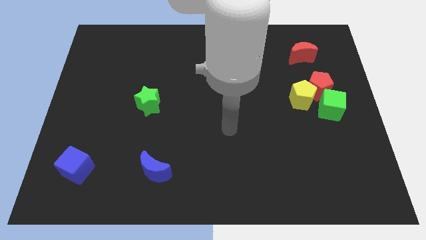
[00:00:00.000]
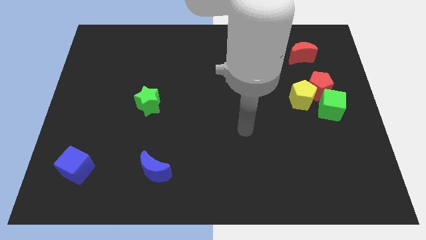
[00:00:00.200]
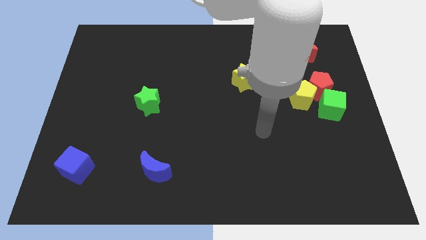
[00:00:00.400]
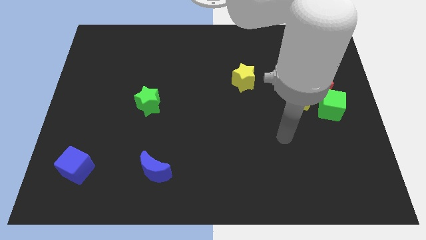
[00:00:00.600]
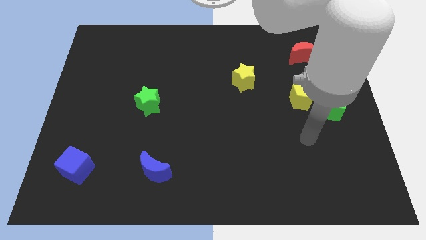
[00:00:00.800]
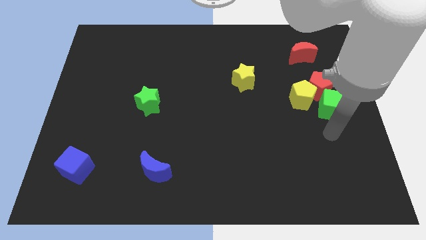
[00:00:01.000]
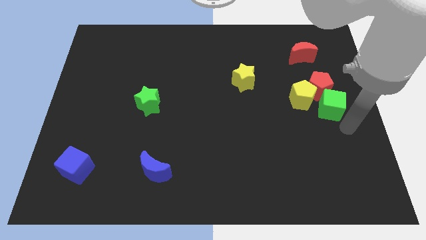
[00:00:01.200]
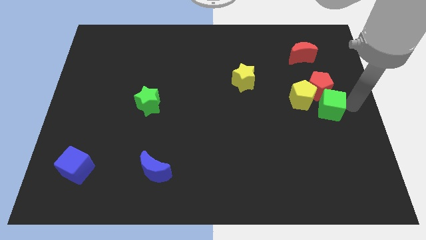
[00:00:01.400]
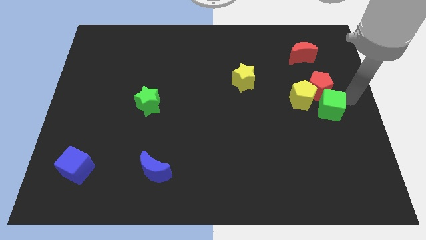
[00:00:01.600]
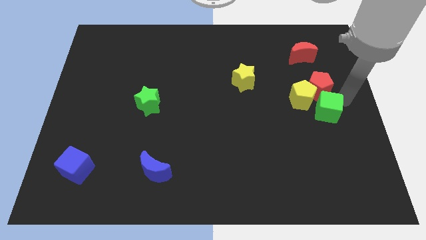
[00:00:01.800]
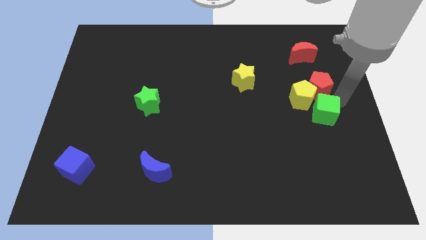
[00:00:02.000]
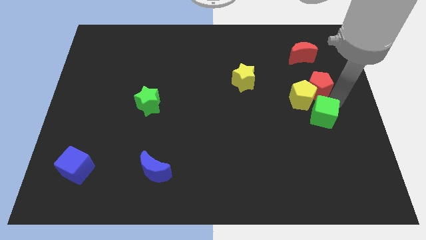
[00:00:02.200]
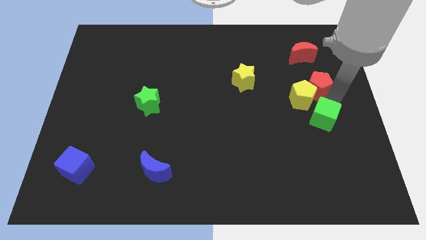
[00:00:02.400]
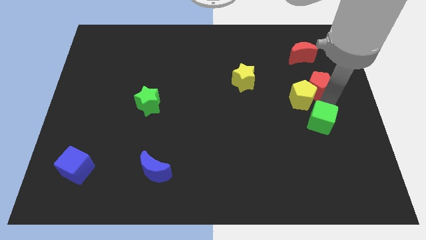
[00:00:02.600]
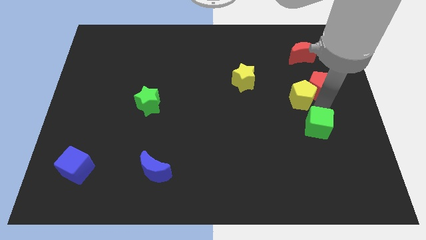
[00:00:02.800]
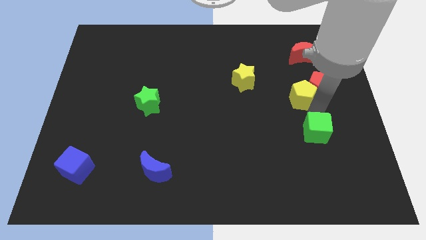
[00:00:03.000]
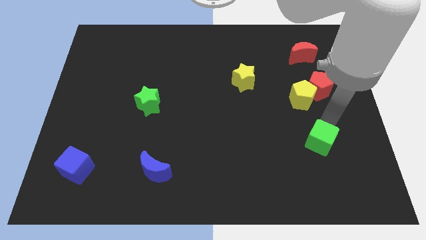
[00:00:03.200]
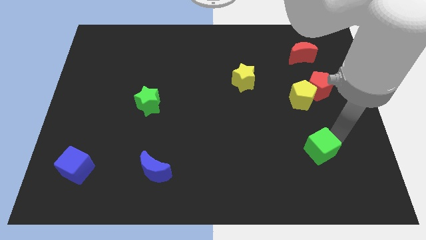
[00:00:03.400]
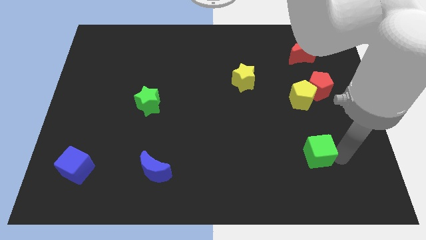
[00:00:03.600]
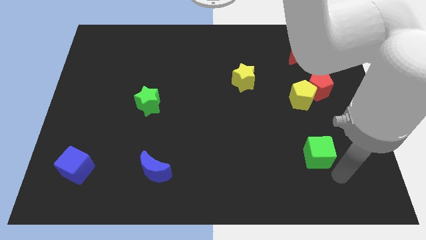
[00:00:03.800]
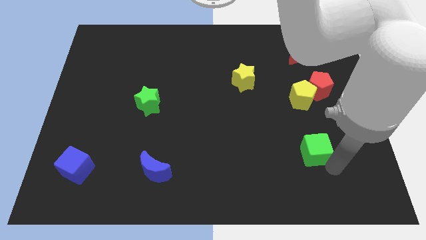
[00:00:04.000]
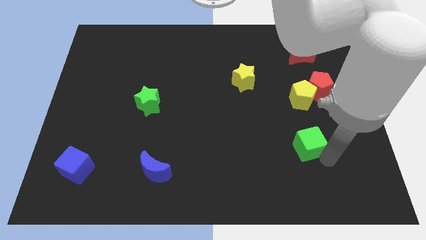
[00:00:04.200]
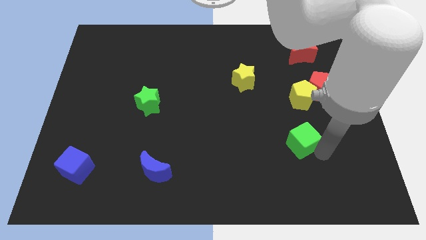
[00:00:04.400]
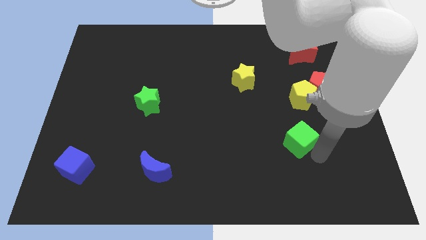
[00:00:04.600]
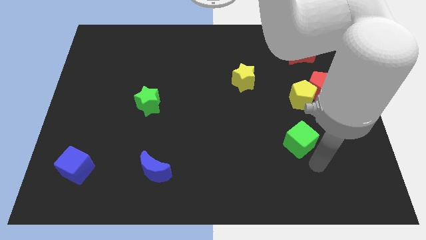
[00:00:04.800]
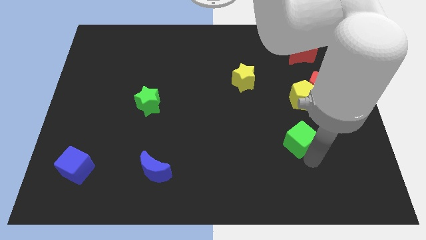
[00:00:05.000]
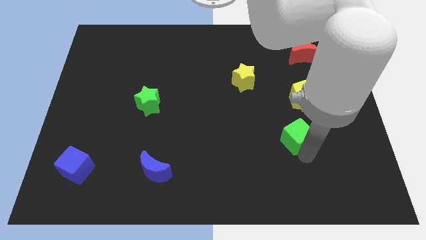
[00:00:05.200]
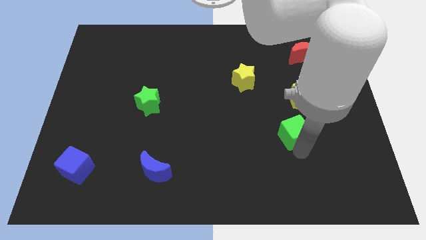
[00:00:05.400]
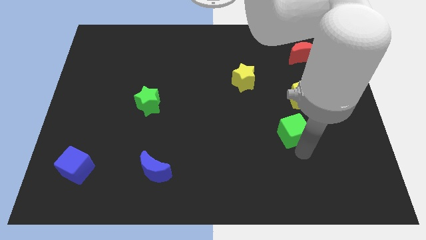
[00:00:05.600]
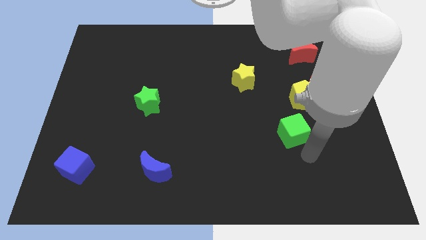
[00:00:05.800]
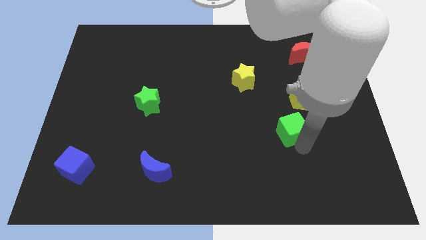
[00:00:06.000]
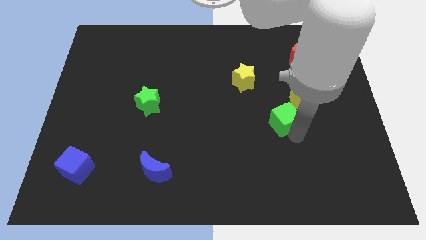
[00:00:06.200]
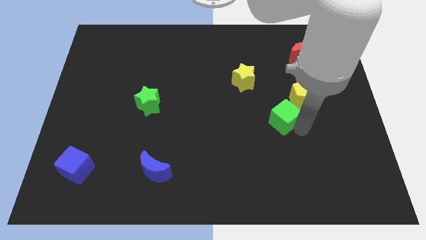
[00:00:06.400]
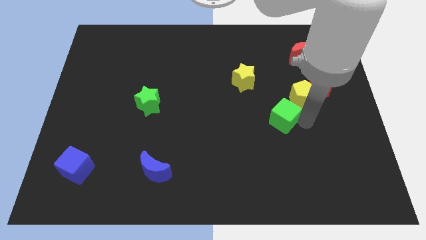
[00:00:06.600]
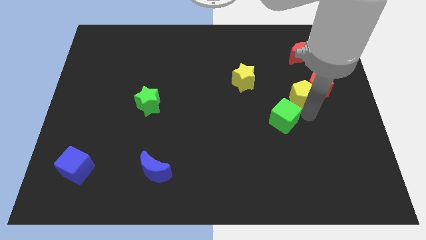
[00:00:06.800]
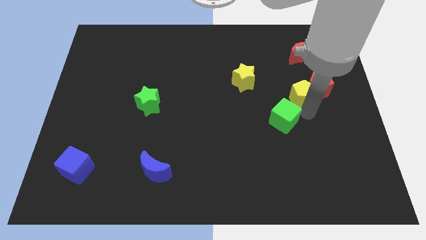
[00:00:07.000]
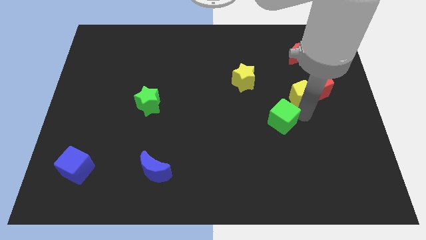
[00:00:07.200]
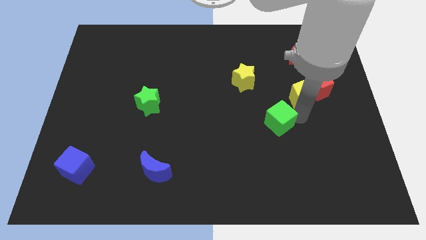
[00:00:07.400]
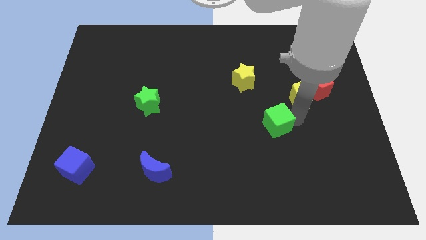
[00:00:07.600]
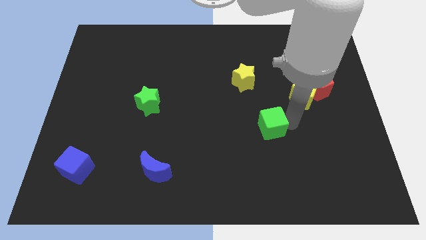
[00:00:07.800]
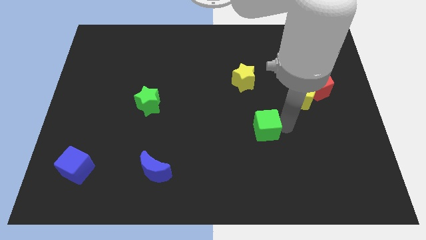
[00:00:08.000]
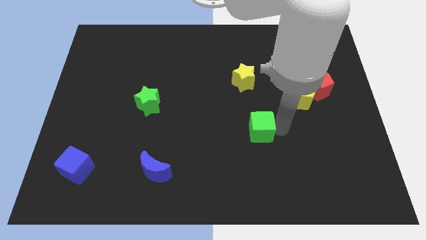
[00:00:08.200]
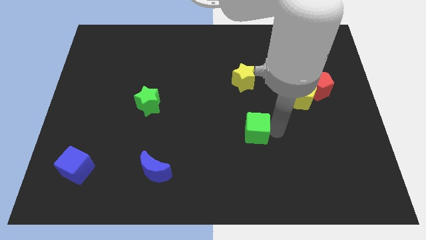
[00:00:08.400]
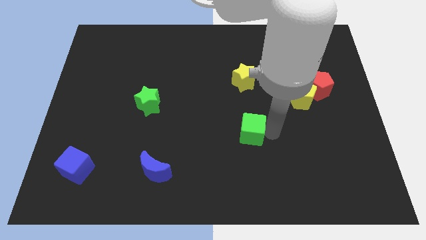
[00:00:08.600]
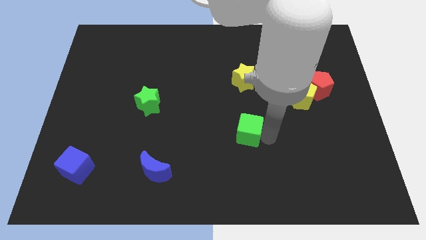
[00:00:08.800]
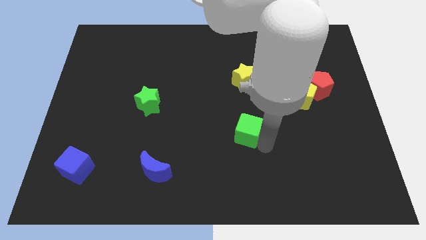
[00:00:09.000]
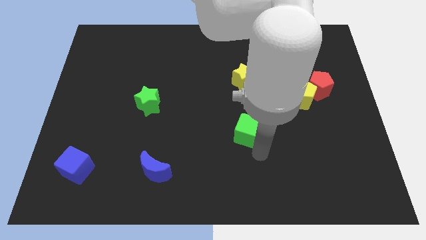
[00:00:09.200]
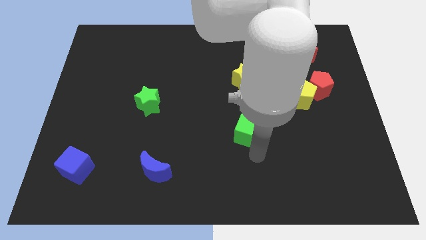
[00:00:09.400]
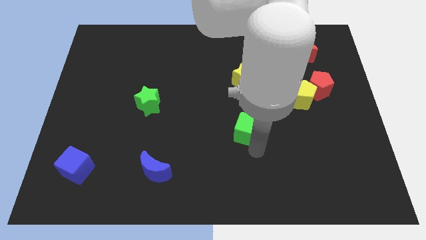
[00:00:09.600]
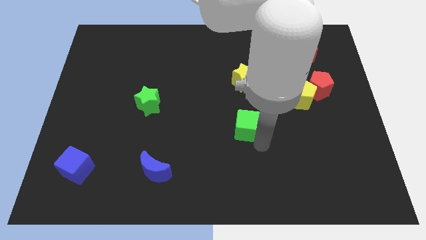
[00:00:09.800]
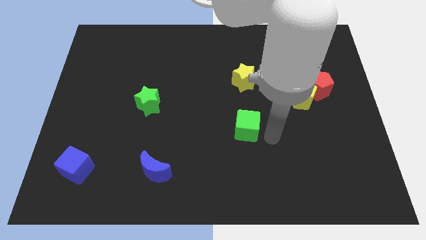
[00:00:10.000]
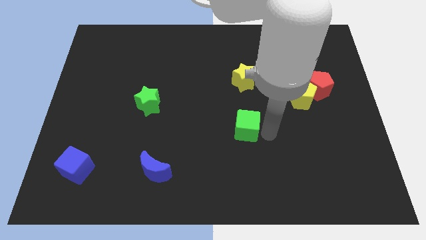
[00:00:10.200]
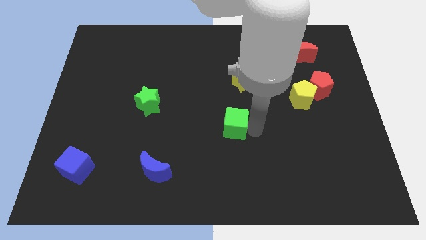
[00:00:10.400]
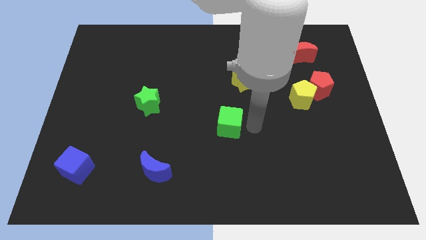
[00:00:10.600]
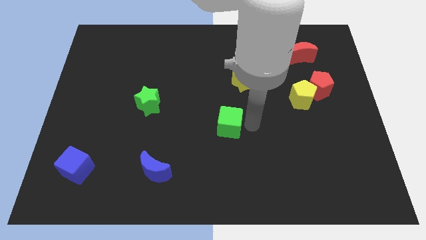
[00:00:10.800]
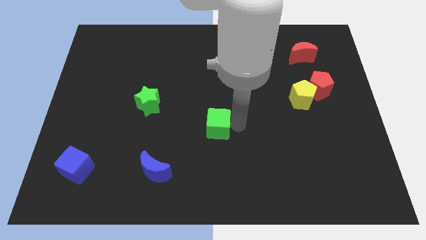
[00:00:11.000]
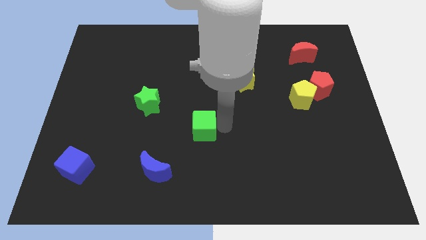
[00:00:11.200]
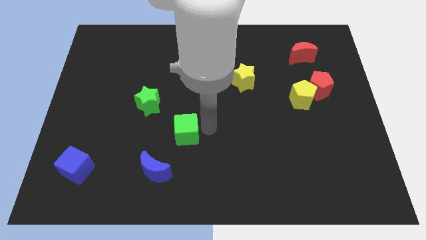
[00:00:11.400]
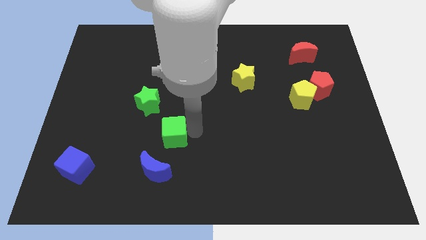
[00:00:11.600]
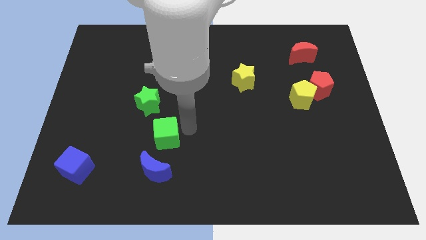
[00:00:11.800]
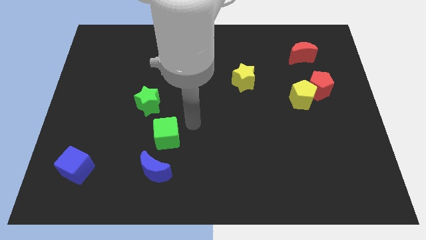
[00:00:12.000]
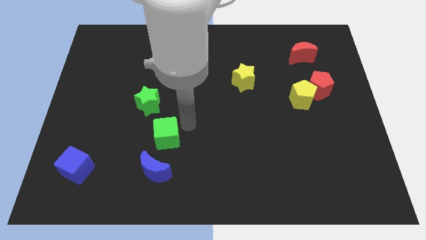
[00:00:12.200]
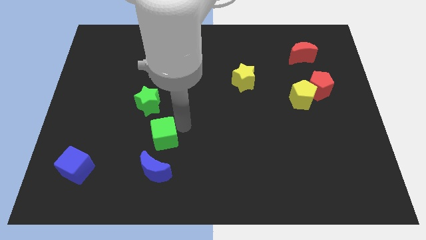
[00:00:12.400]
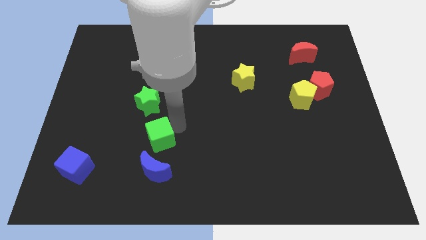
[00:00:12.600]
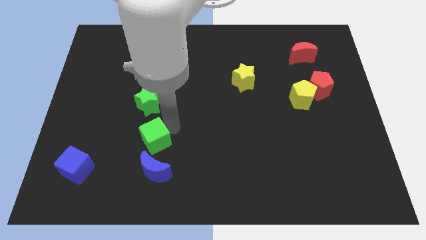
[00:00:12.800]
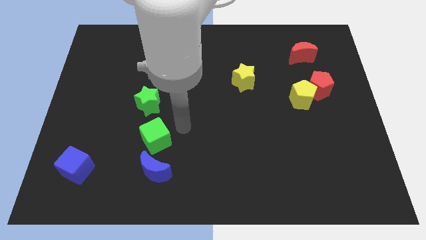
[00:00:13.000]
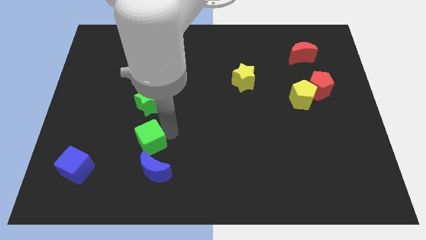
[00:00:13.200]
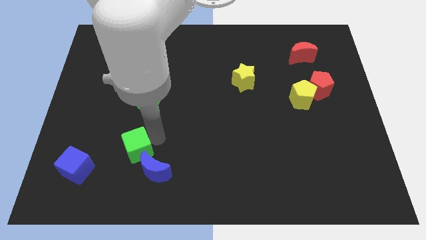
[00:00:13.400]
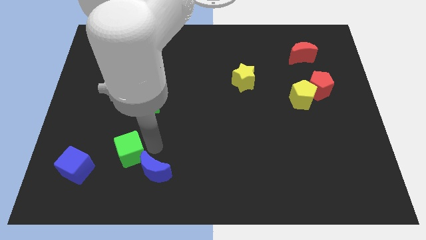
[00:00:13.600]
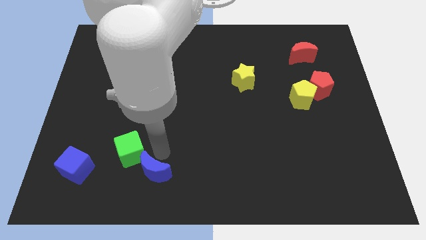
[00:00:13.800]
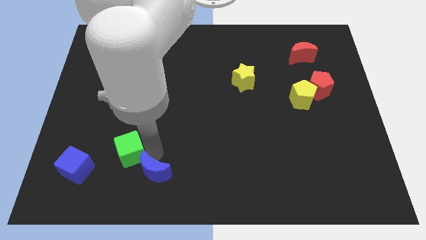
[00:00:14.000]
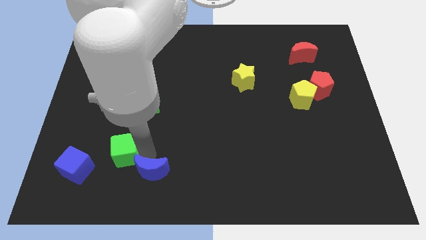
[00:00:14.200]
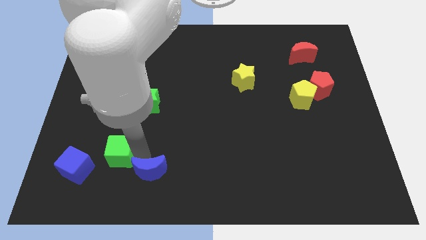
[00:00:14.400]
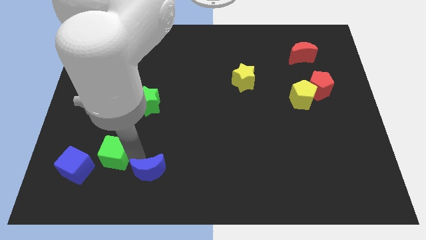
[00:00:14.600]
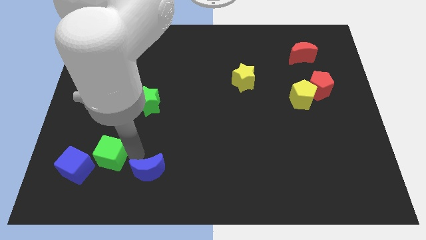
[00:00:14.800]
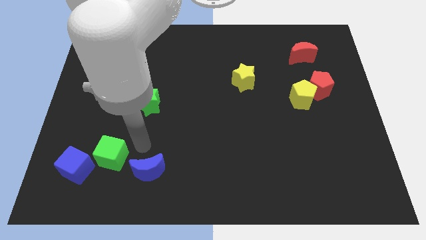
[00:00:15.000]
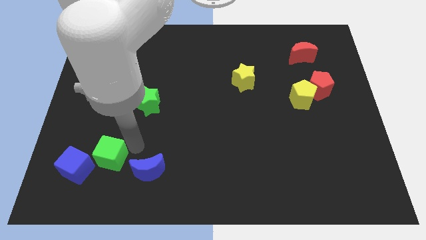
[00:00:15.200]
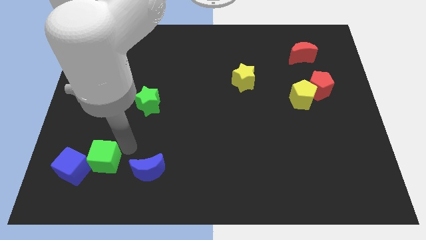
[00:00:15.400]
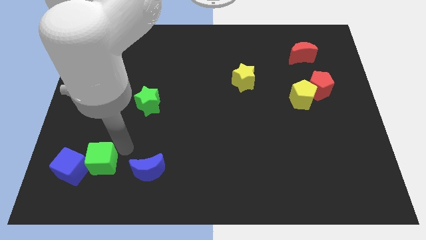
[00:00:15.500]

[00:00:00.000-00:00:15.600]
move the green cube to the blue cube
